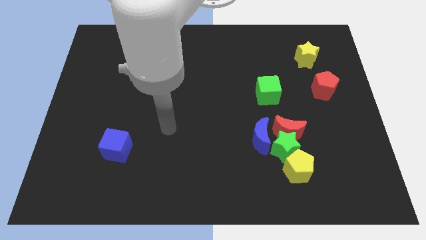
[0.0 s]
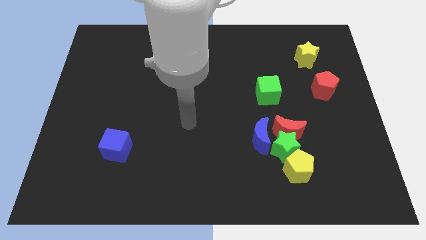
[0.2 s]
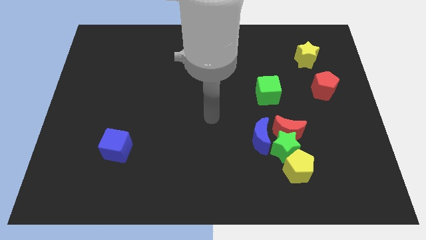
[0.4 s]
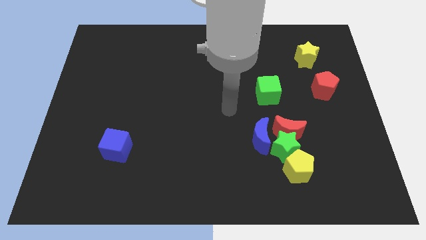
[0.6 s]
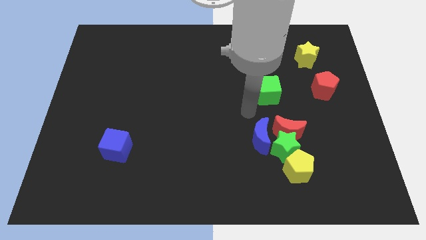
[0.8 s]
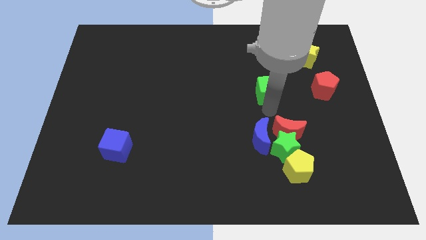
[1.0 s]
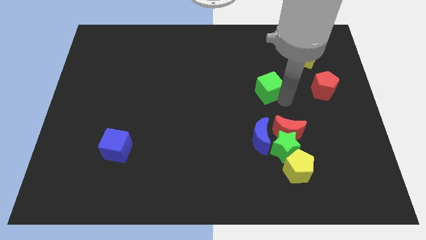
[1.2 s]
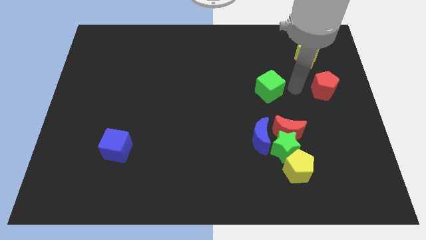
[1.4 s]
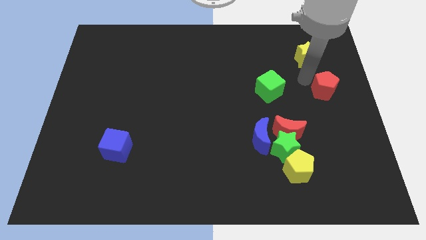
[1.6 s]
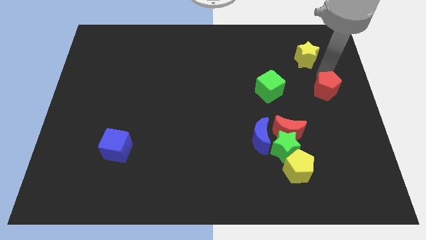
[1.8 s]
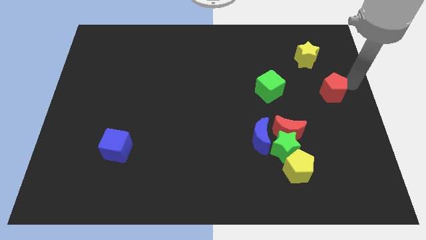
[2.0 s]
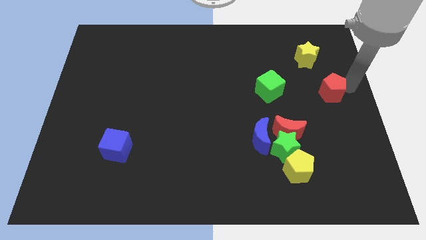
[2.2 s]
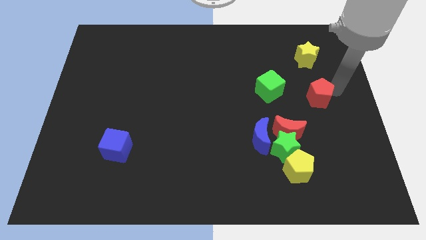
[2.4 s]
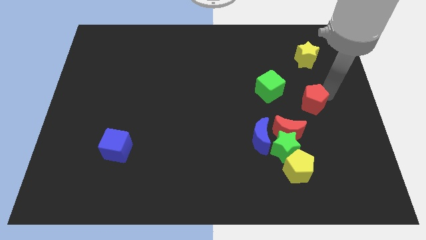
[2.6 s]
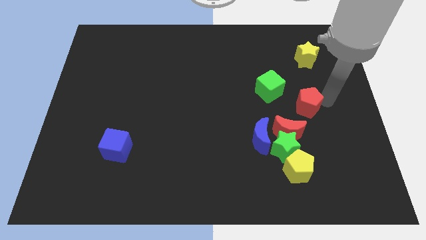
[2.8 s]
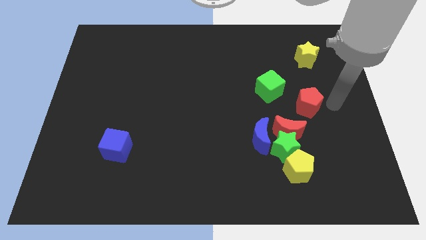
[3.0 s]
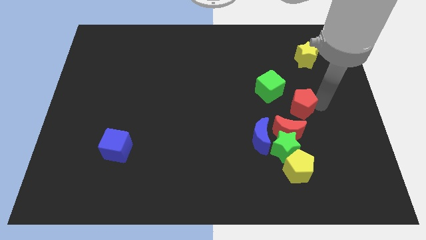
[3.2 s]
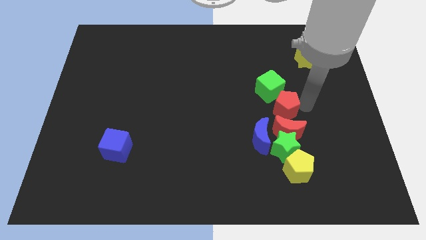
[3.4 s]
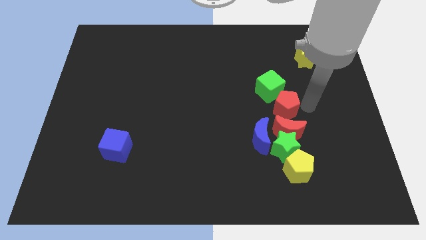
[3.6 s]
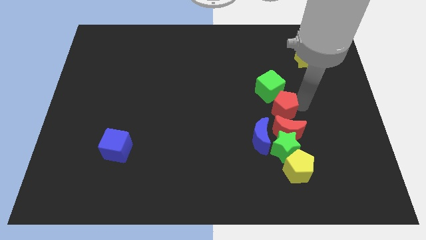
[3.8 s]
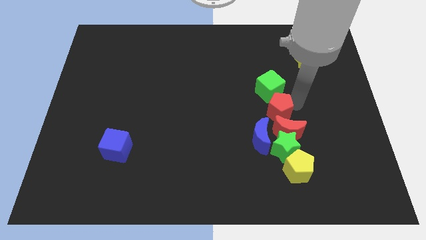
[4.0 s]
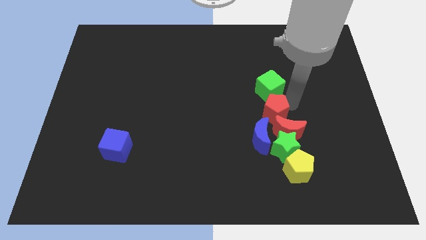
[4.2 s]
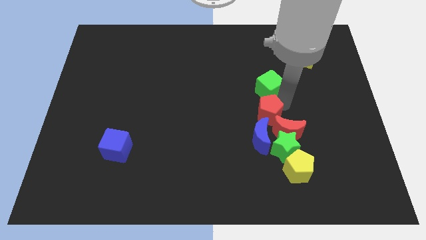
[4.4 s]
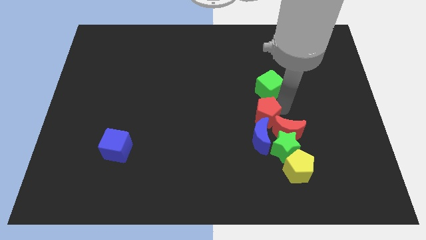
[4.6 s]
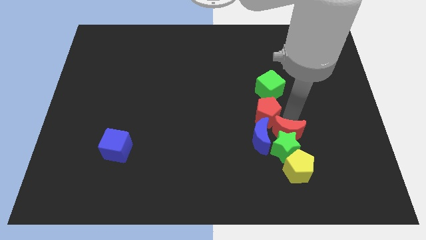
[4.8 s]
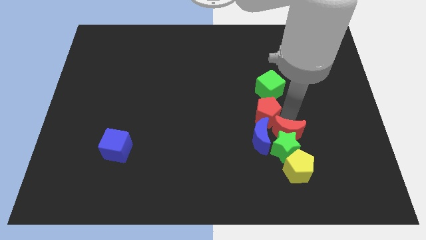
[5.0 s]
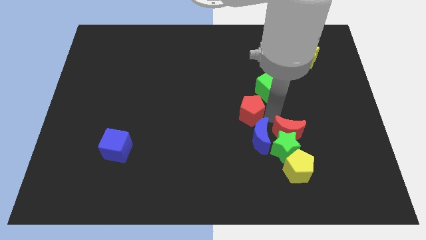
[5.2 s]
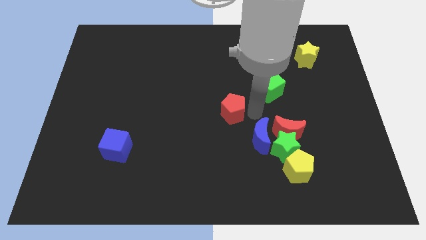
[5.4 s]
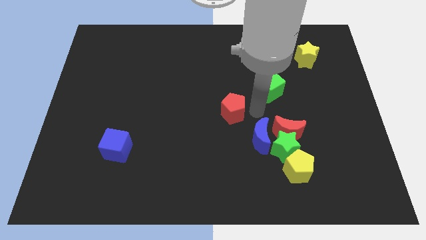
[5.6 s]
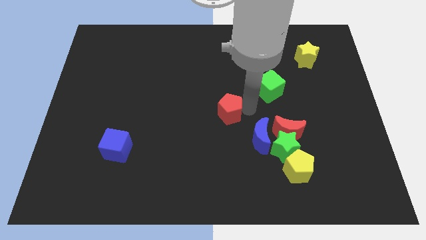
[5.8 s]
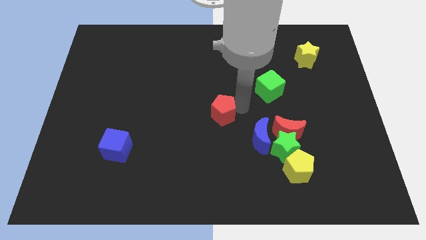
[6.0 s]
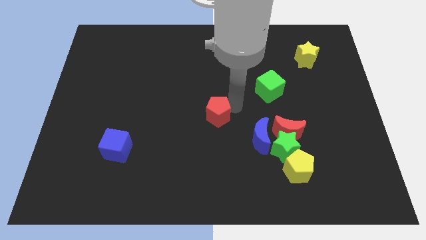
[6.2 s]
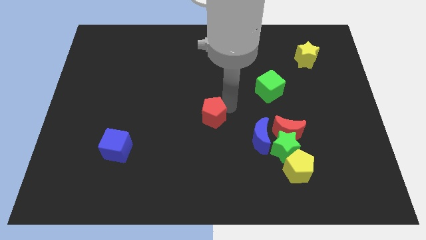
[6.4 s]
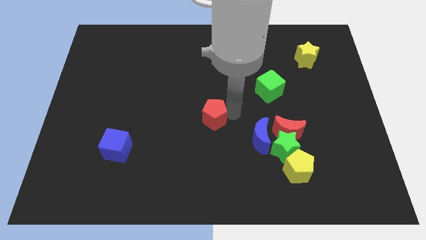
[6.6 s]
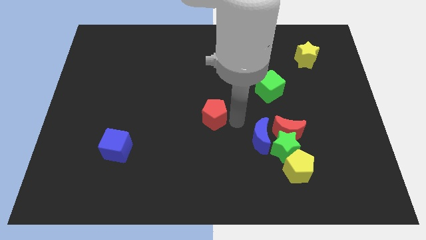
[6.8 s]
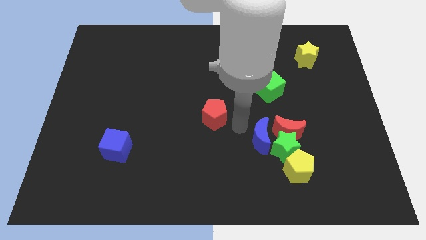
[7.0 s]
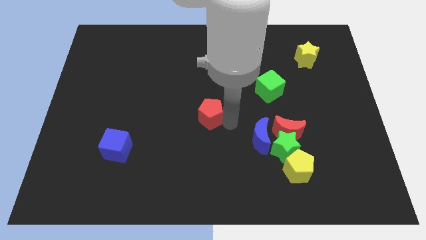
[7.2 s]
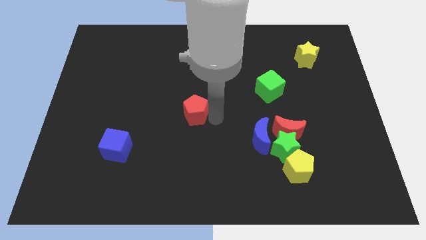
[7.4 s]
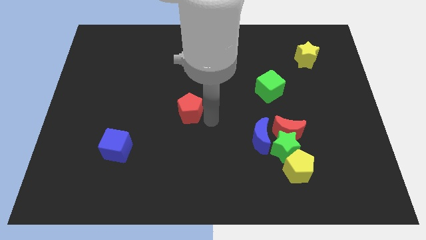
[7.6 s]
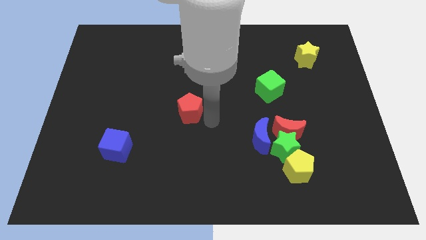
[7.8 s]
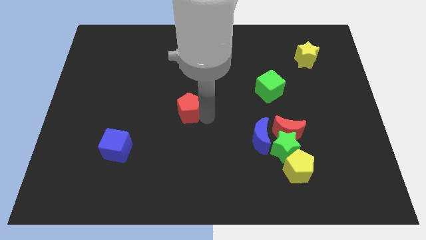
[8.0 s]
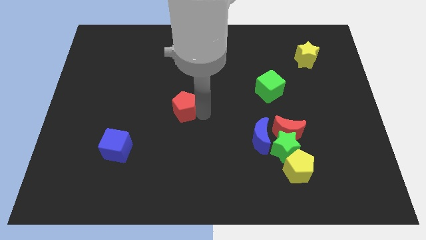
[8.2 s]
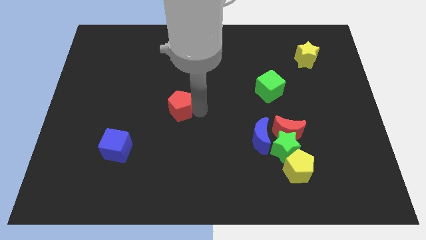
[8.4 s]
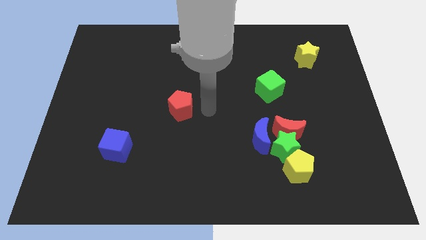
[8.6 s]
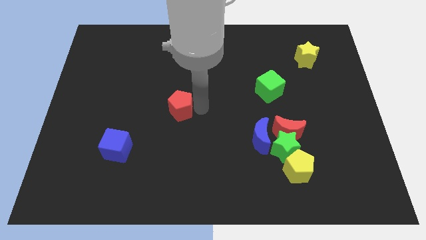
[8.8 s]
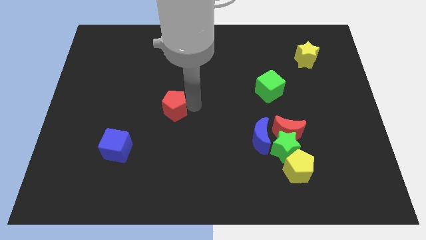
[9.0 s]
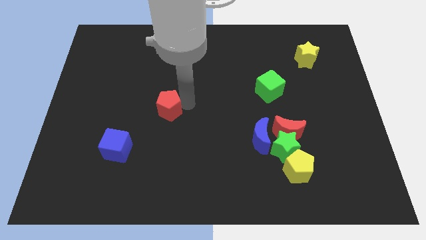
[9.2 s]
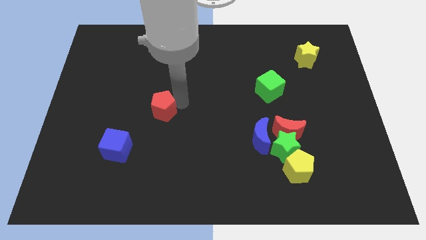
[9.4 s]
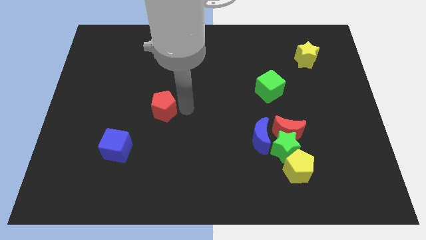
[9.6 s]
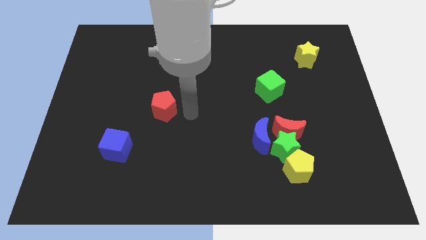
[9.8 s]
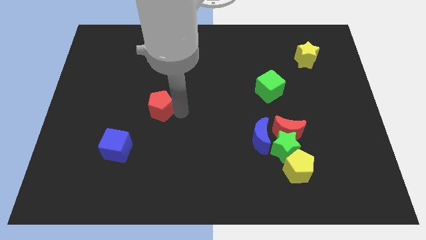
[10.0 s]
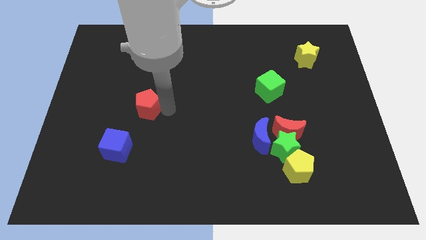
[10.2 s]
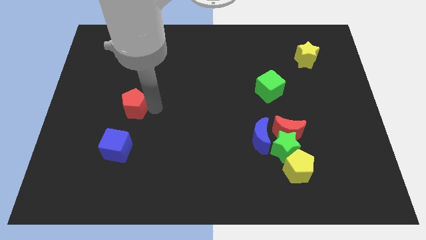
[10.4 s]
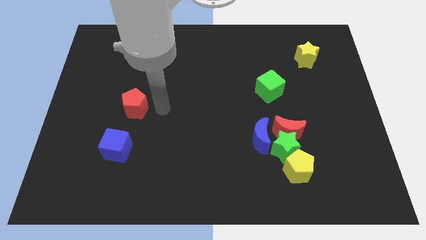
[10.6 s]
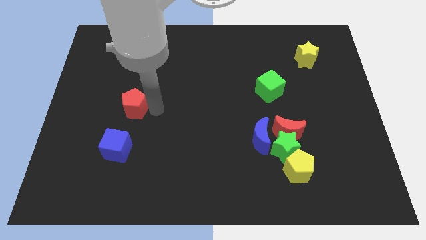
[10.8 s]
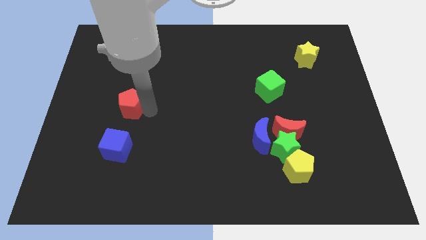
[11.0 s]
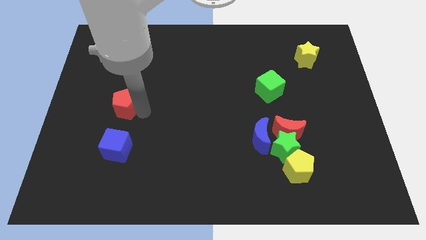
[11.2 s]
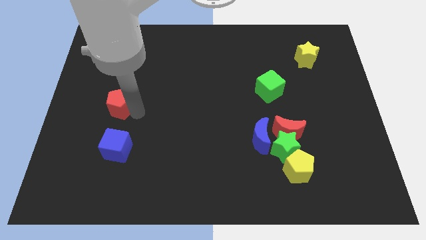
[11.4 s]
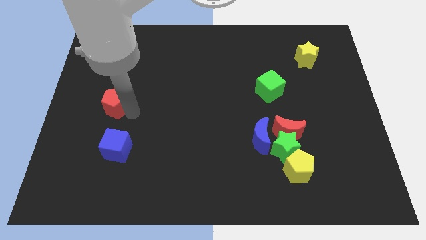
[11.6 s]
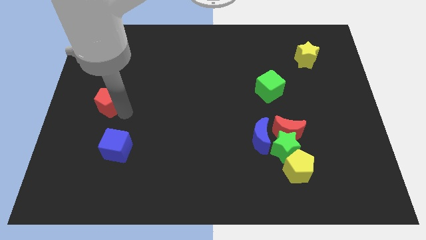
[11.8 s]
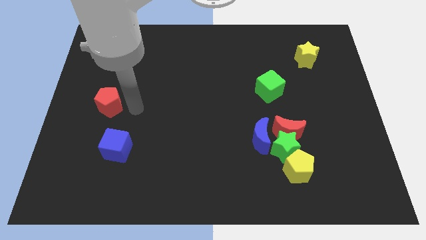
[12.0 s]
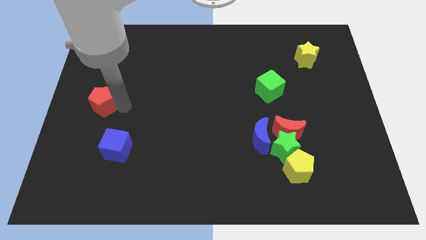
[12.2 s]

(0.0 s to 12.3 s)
move the red pentagon to the center left
